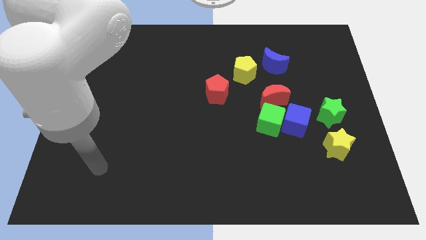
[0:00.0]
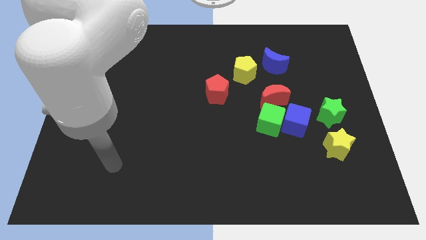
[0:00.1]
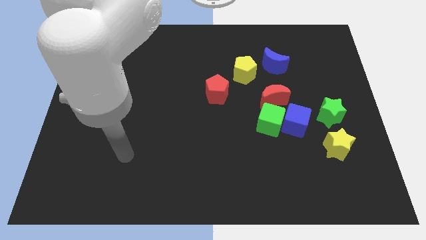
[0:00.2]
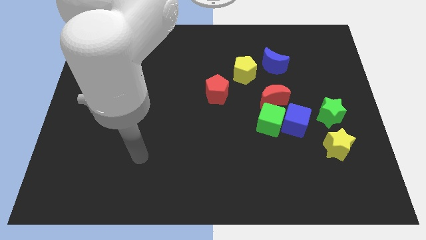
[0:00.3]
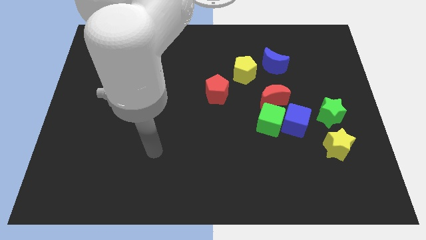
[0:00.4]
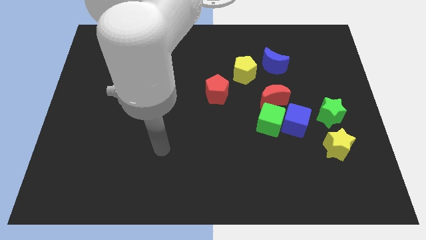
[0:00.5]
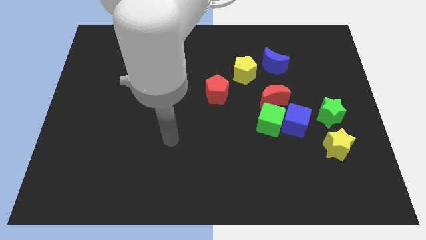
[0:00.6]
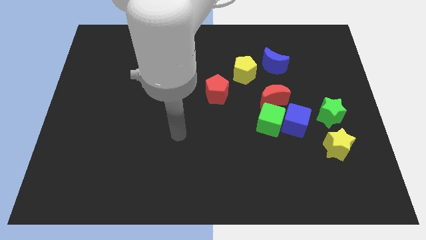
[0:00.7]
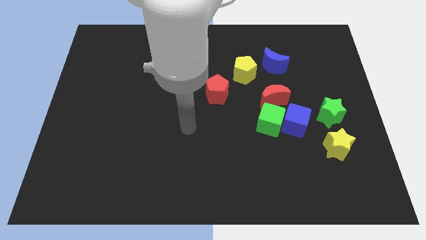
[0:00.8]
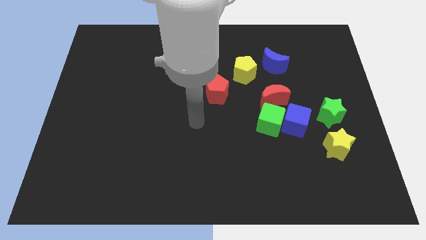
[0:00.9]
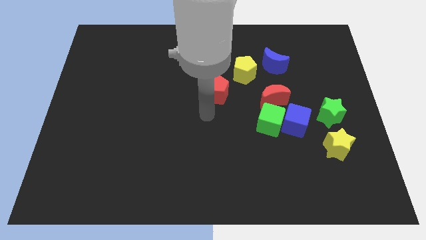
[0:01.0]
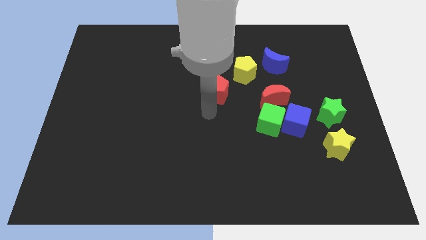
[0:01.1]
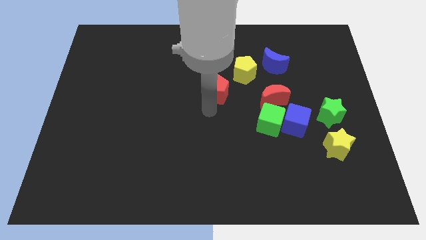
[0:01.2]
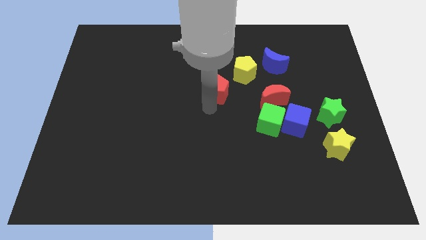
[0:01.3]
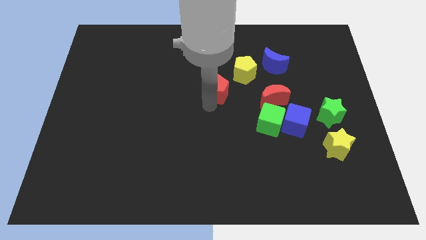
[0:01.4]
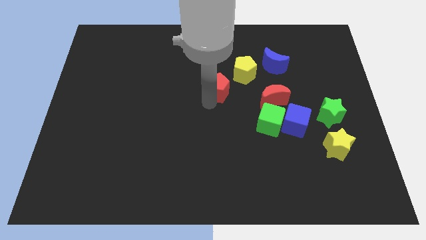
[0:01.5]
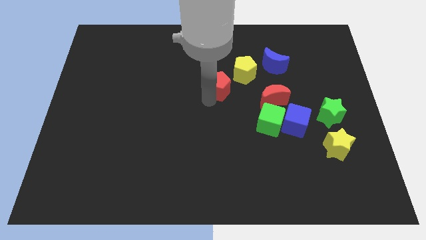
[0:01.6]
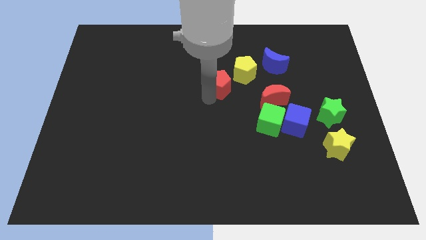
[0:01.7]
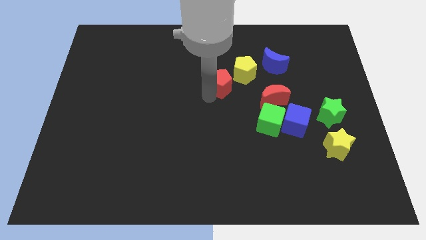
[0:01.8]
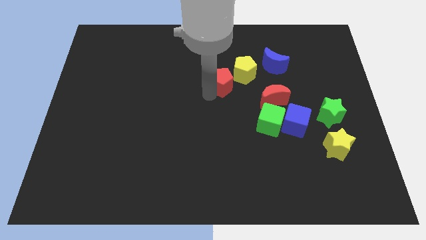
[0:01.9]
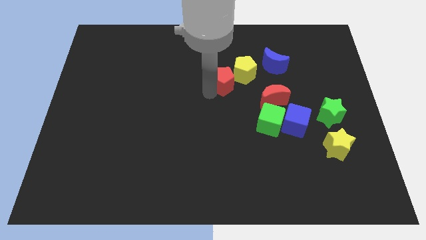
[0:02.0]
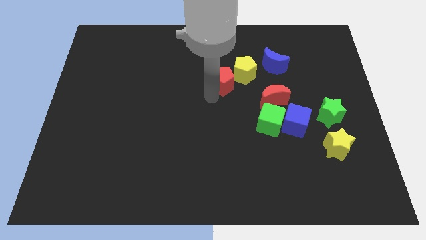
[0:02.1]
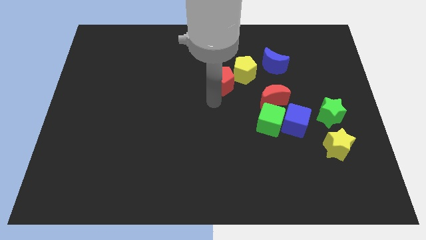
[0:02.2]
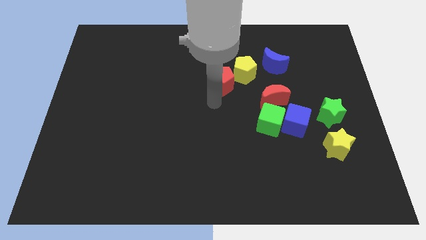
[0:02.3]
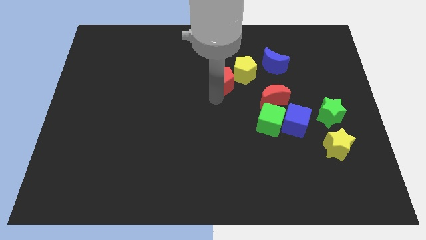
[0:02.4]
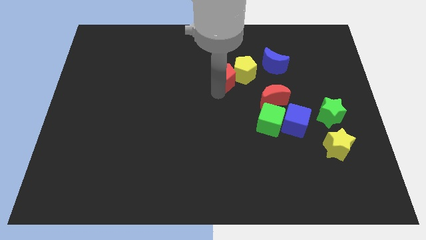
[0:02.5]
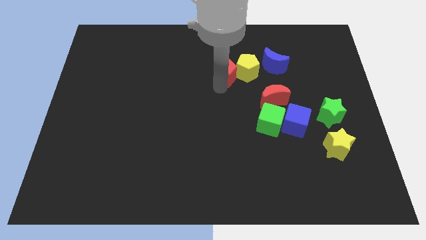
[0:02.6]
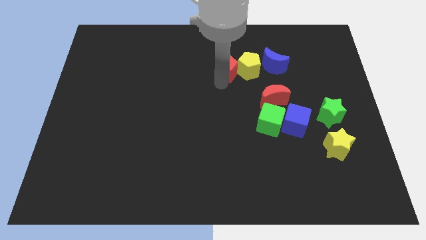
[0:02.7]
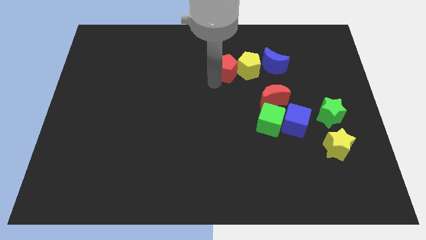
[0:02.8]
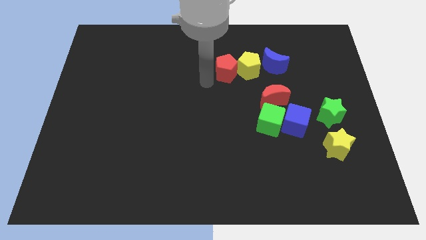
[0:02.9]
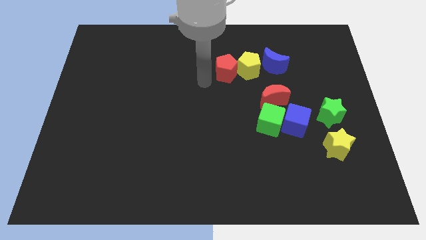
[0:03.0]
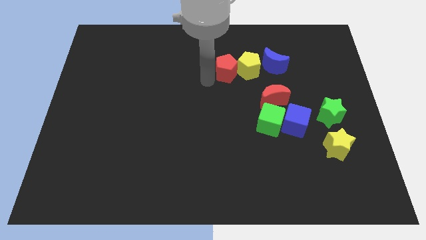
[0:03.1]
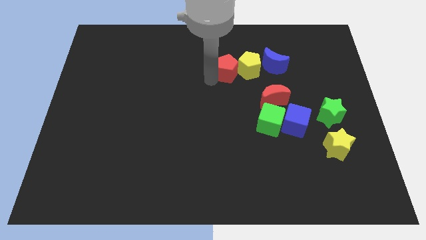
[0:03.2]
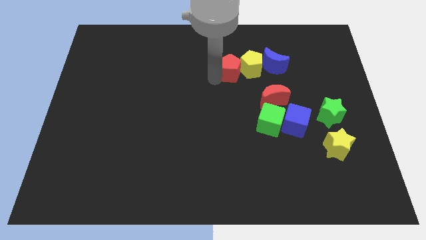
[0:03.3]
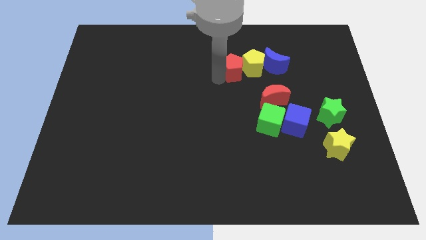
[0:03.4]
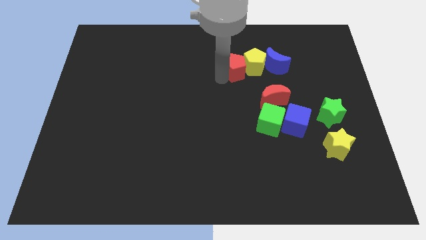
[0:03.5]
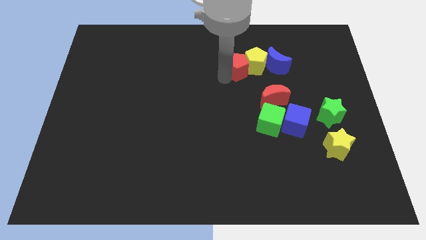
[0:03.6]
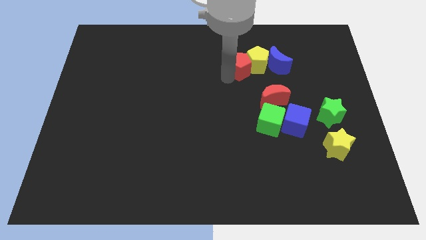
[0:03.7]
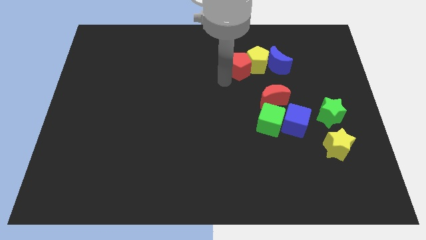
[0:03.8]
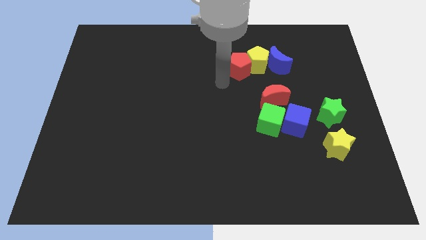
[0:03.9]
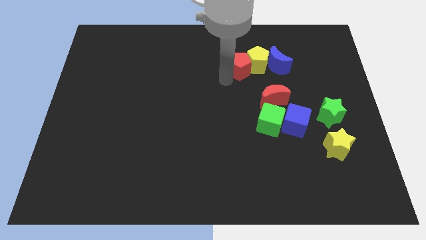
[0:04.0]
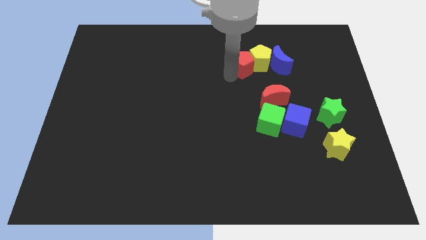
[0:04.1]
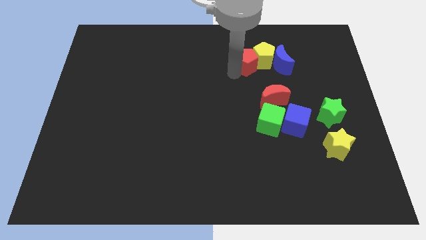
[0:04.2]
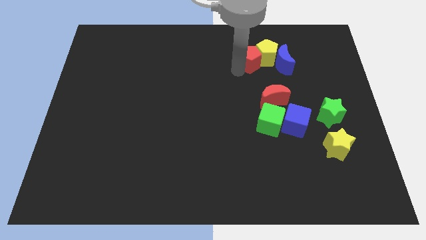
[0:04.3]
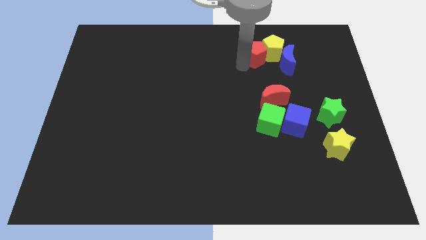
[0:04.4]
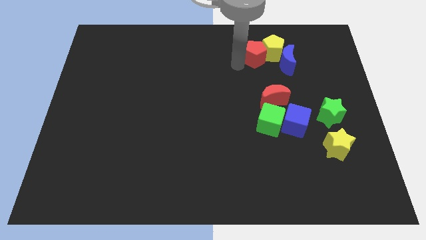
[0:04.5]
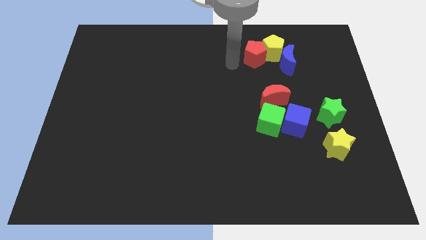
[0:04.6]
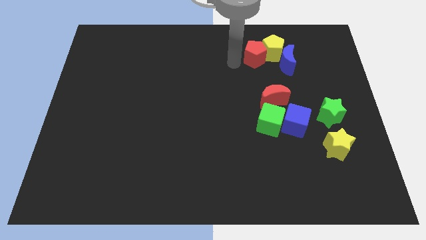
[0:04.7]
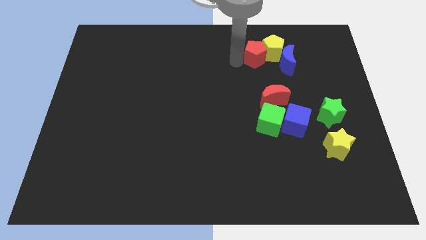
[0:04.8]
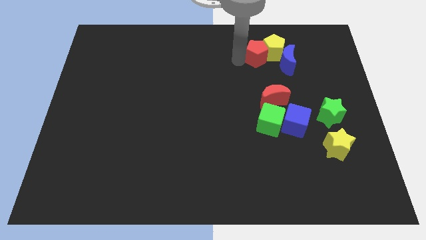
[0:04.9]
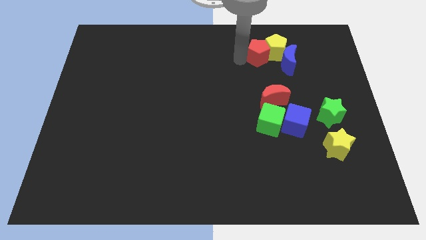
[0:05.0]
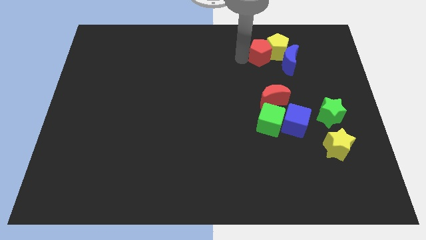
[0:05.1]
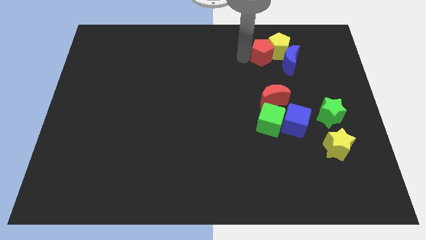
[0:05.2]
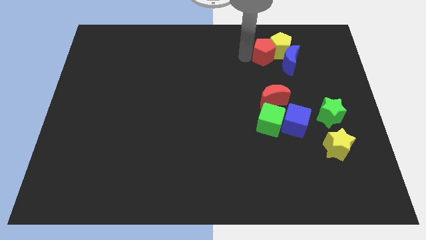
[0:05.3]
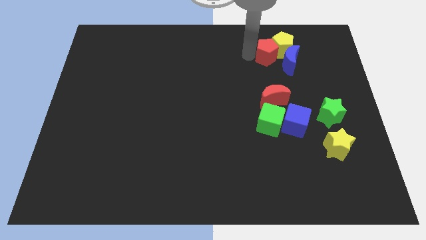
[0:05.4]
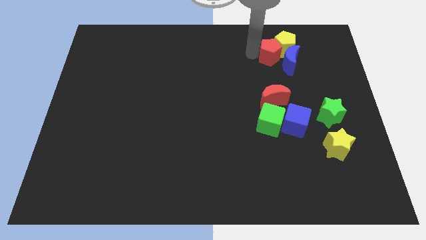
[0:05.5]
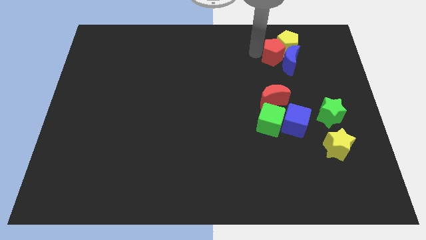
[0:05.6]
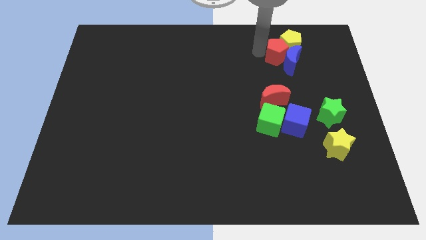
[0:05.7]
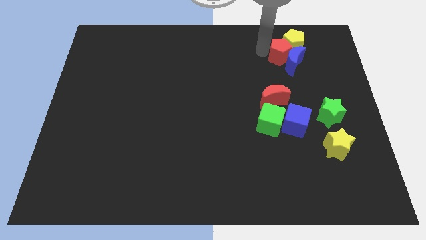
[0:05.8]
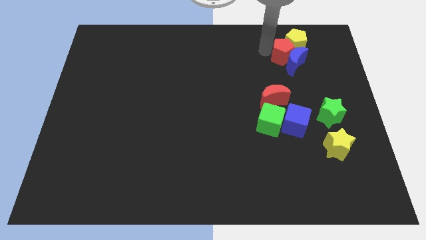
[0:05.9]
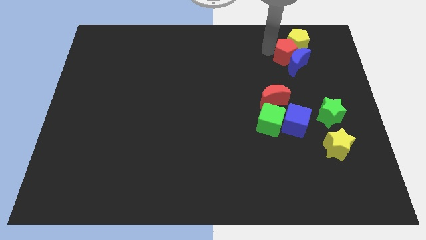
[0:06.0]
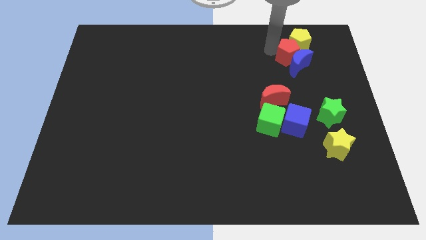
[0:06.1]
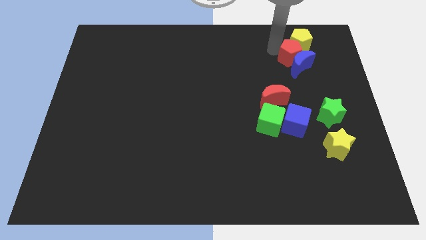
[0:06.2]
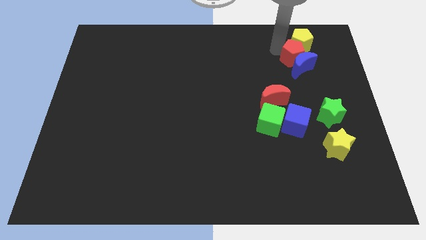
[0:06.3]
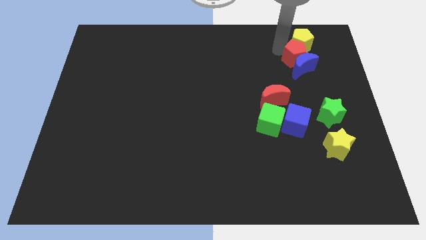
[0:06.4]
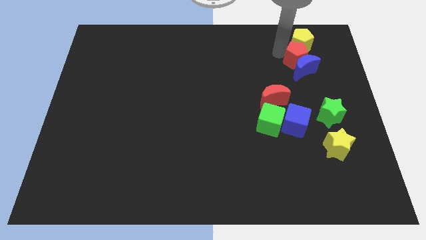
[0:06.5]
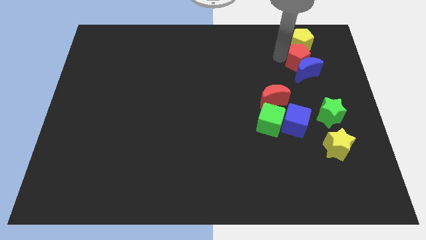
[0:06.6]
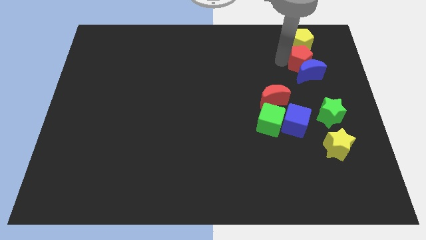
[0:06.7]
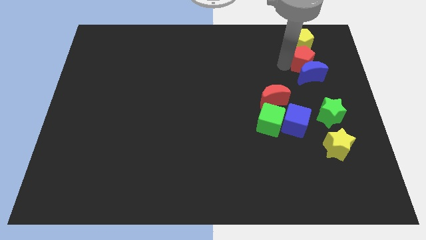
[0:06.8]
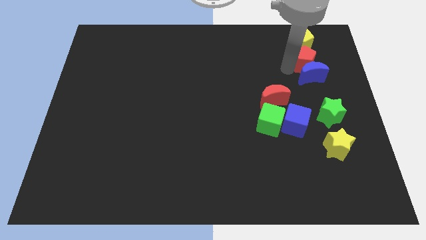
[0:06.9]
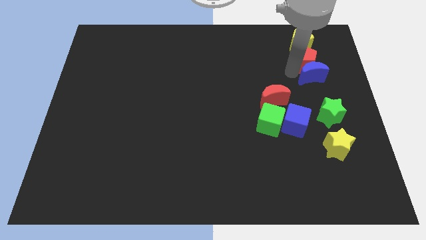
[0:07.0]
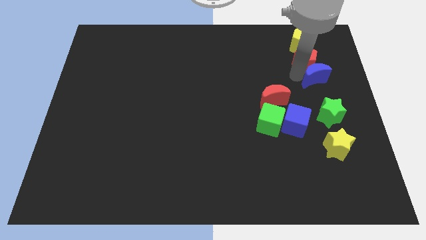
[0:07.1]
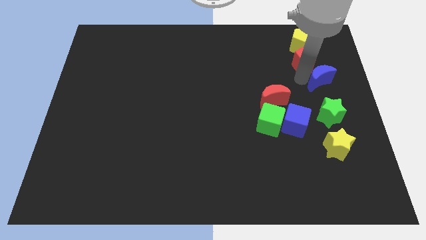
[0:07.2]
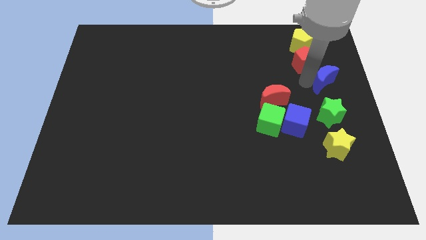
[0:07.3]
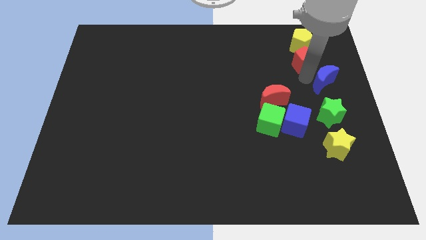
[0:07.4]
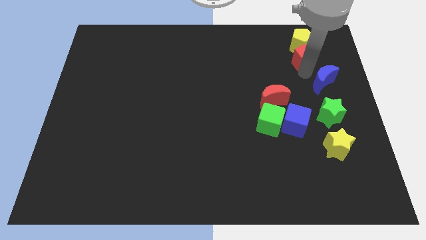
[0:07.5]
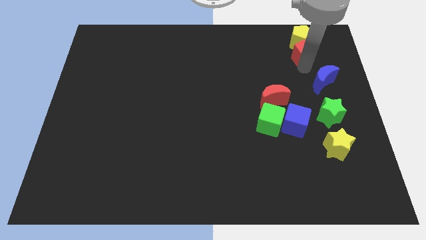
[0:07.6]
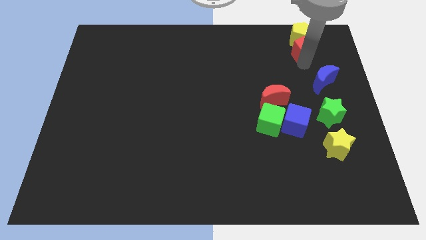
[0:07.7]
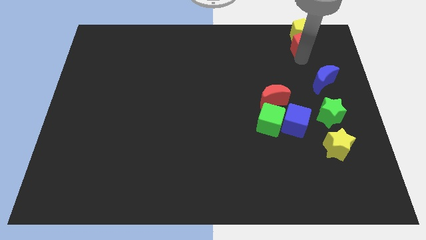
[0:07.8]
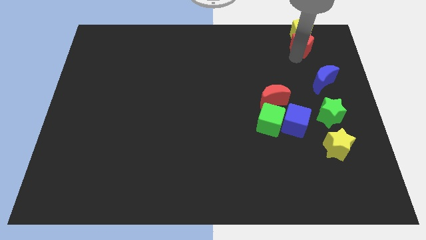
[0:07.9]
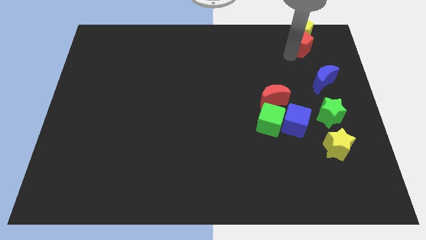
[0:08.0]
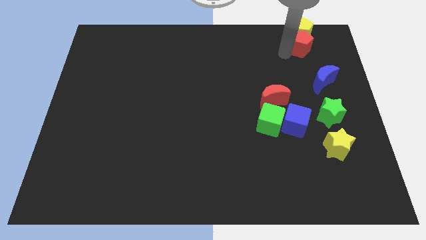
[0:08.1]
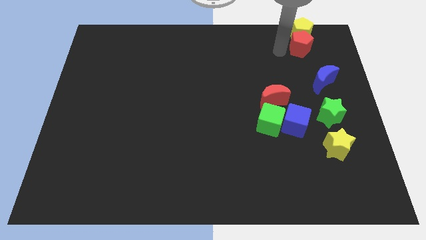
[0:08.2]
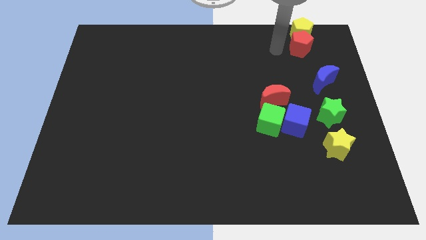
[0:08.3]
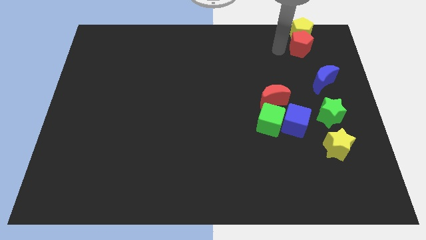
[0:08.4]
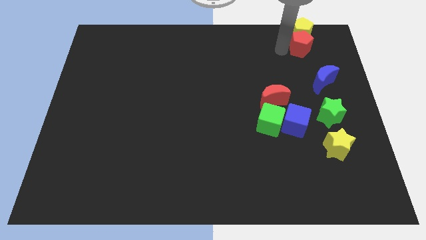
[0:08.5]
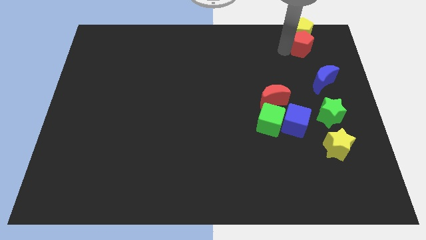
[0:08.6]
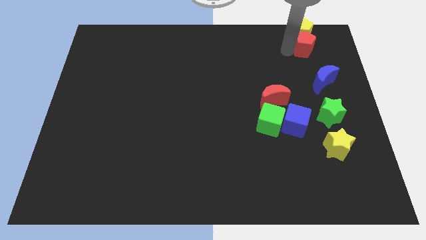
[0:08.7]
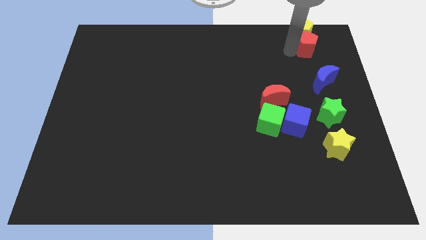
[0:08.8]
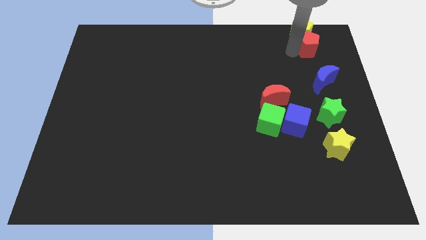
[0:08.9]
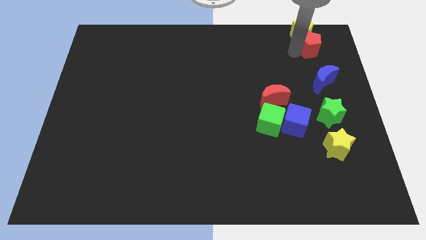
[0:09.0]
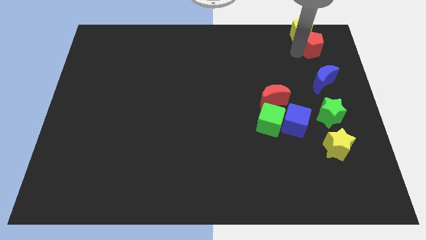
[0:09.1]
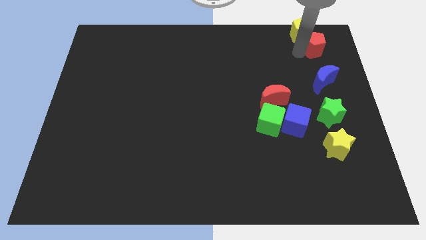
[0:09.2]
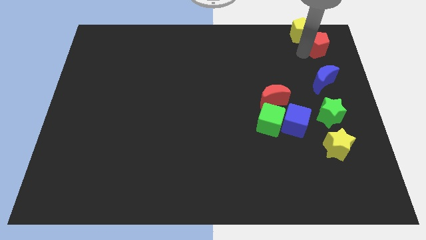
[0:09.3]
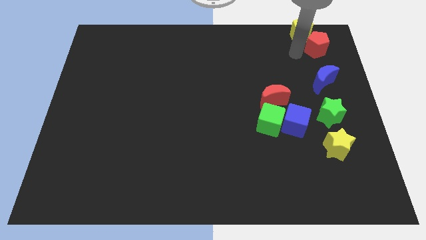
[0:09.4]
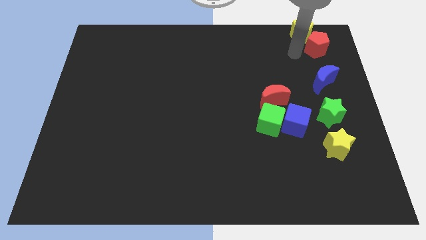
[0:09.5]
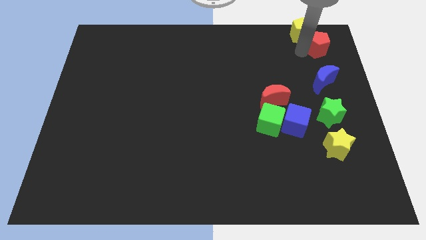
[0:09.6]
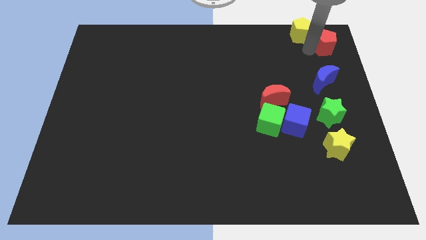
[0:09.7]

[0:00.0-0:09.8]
move the red pentagon to the top right corner
